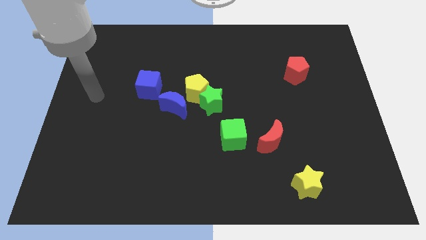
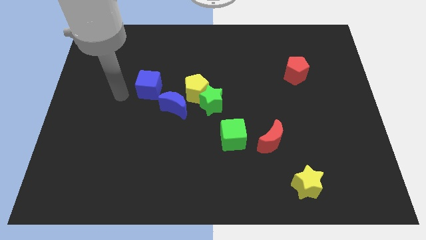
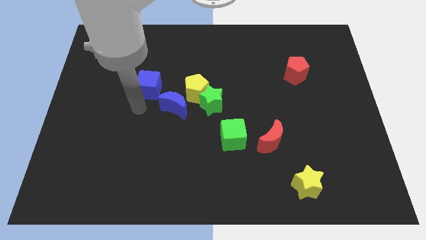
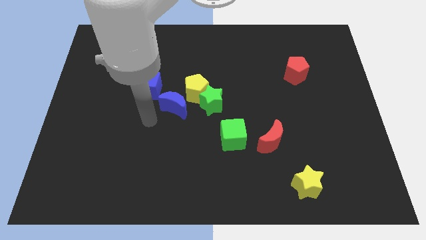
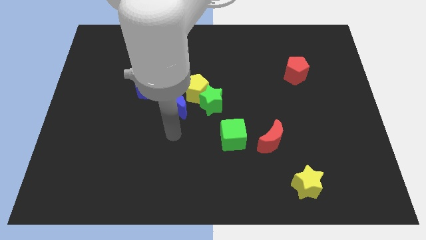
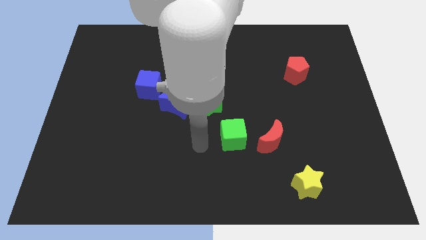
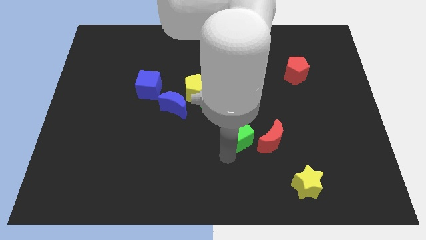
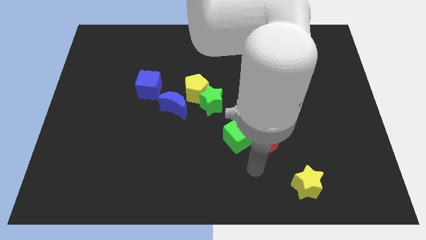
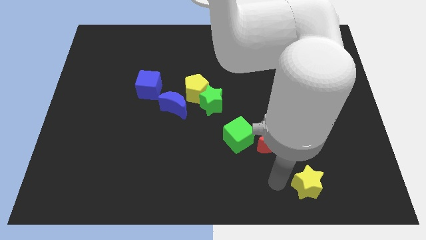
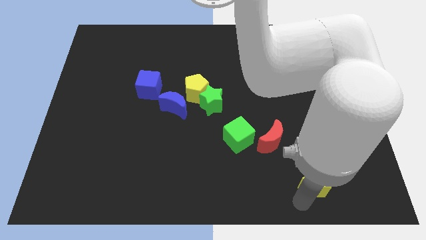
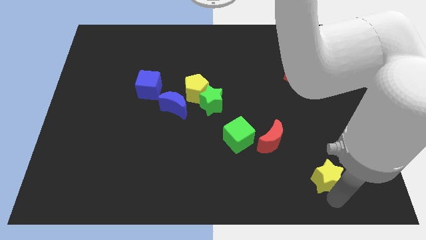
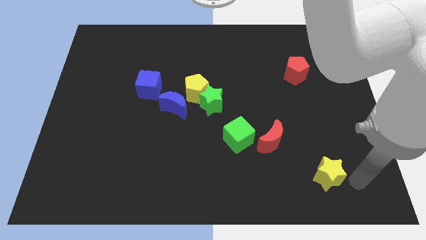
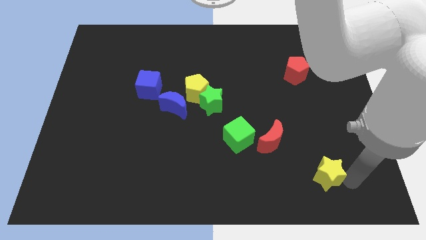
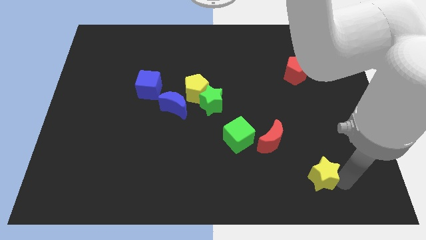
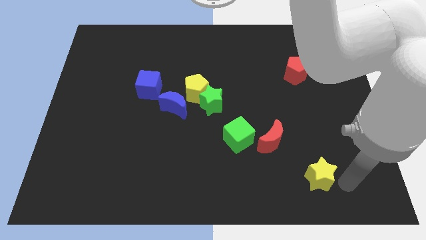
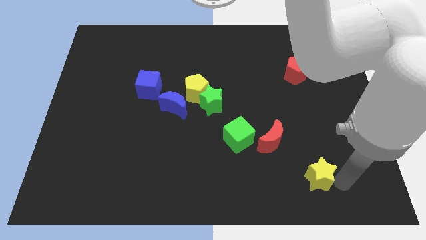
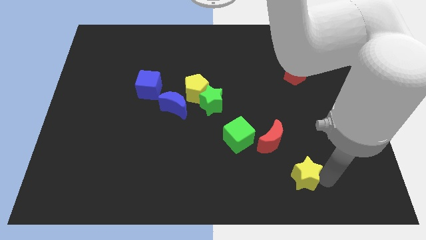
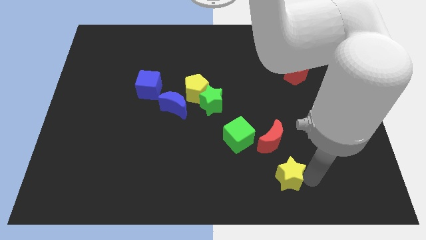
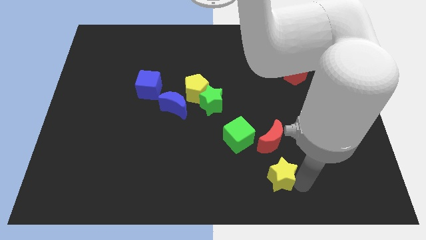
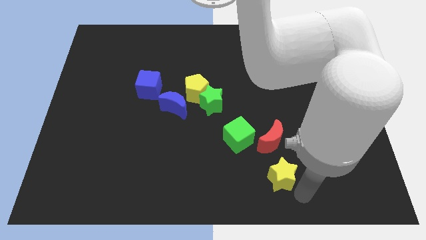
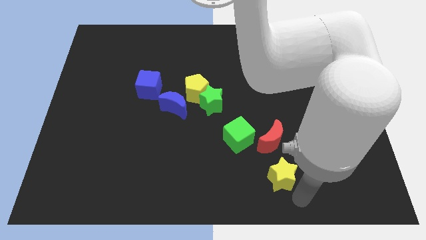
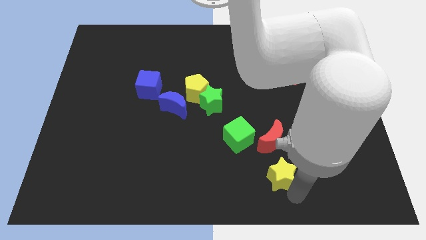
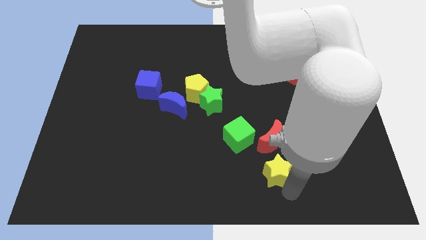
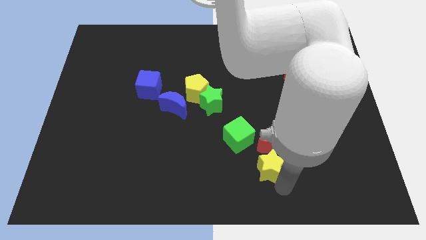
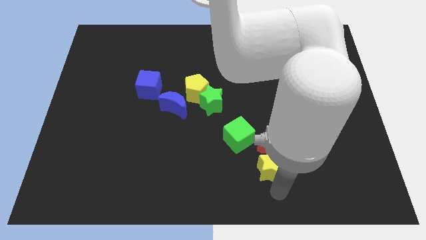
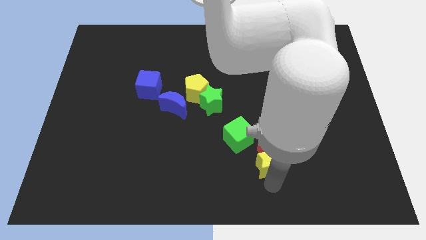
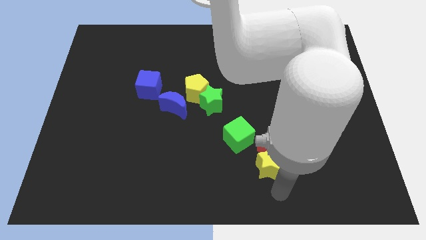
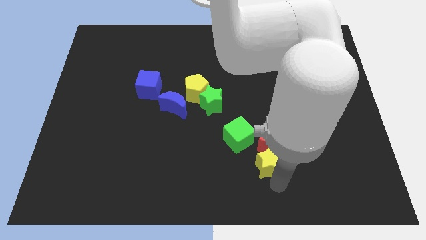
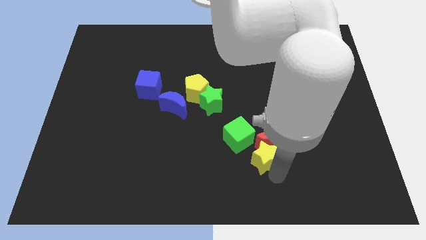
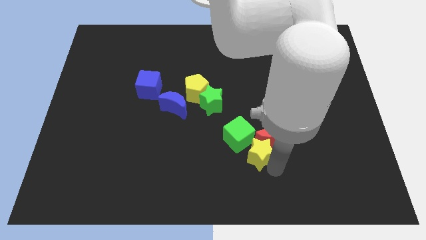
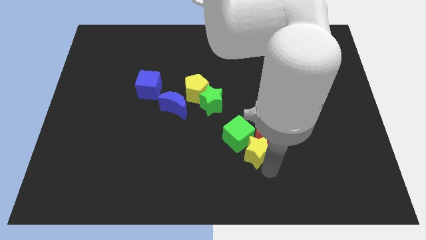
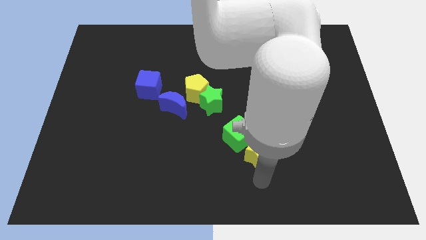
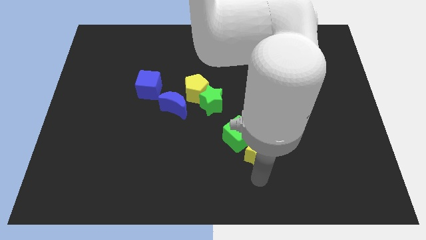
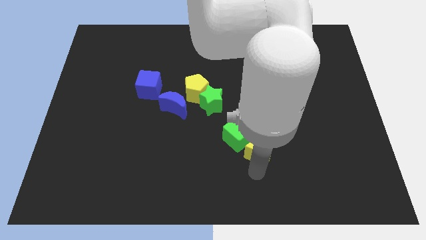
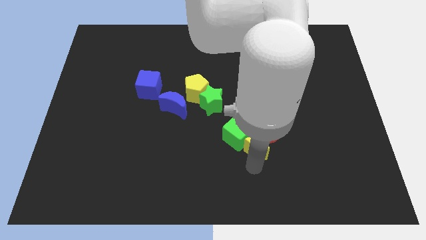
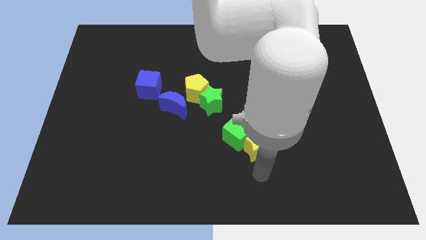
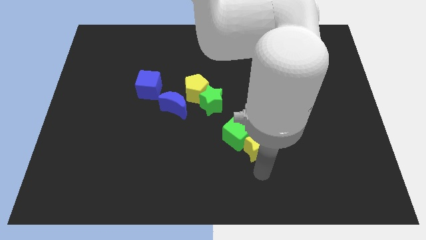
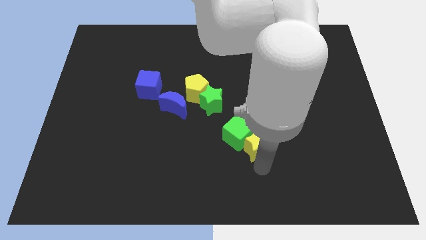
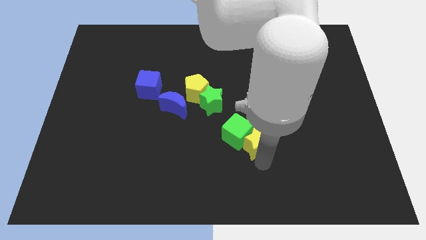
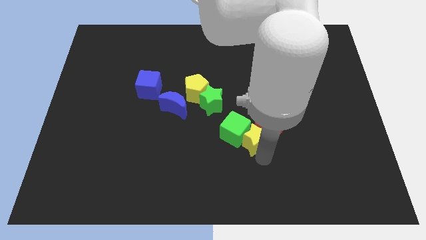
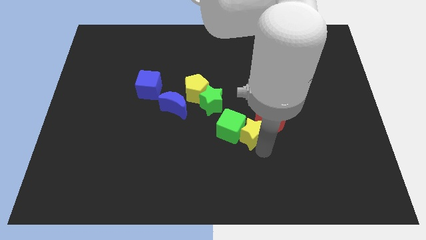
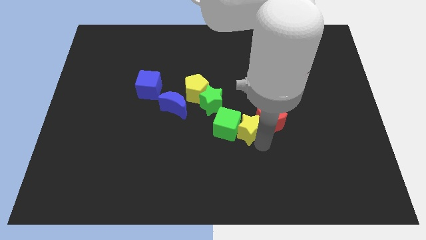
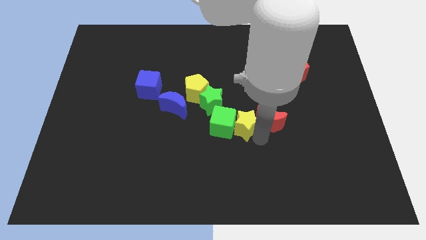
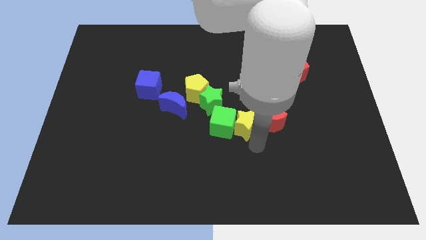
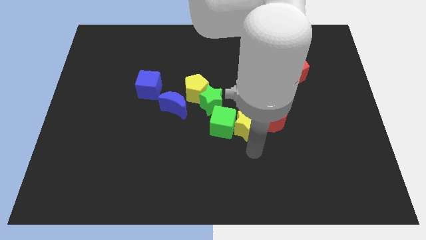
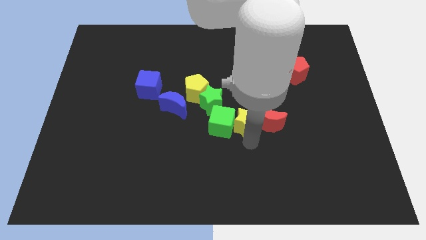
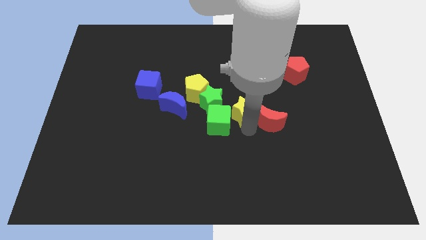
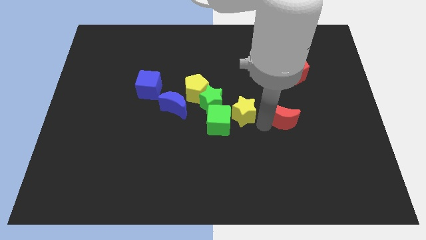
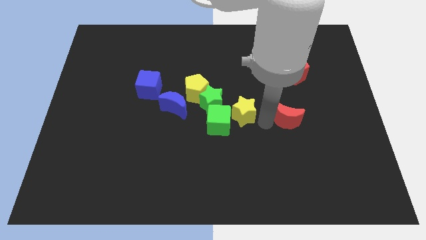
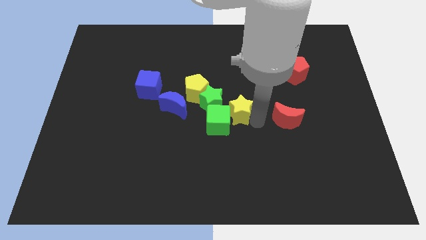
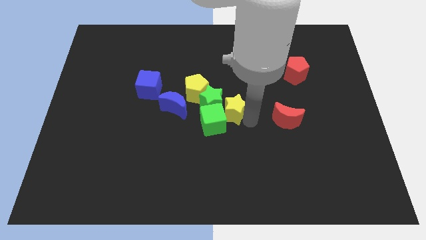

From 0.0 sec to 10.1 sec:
push the yellow star next to the green star

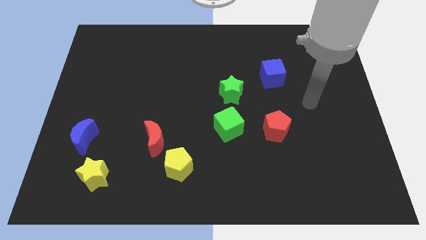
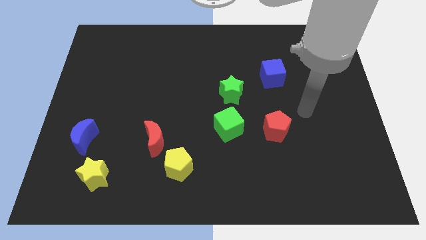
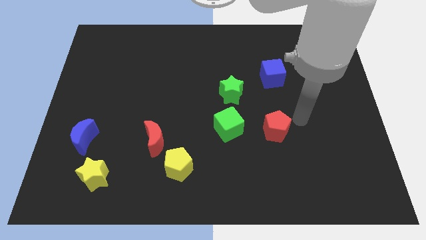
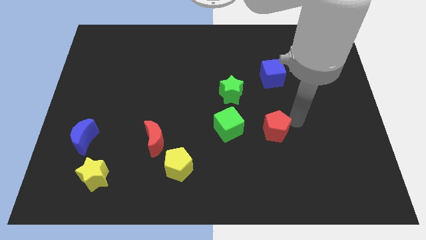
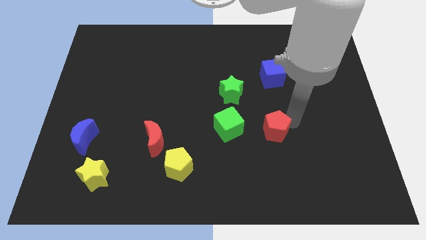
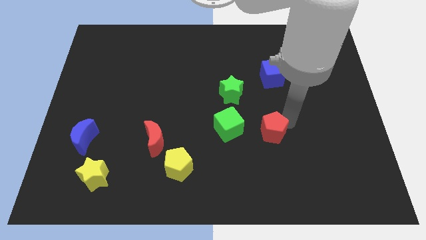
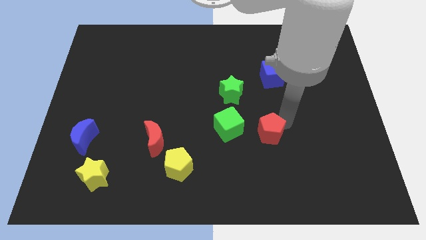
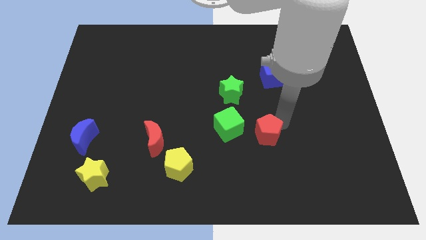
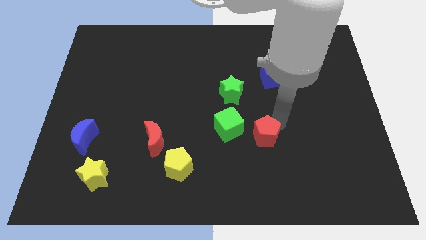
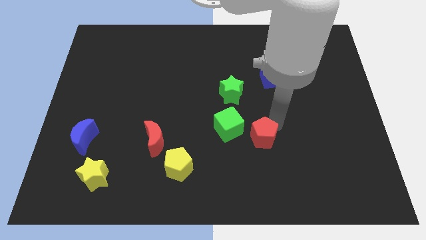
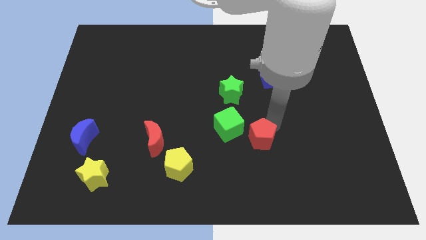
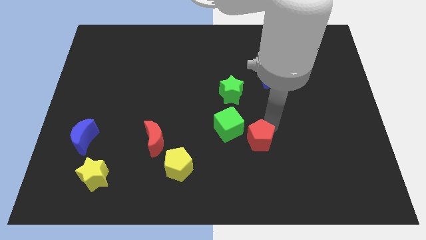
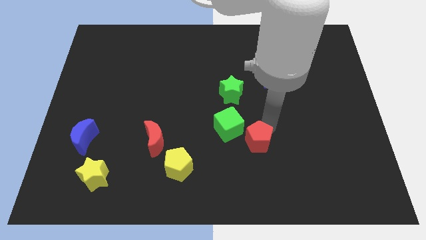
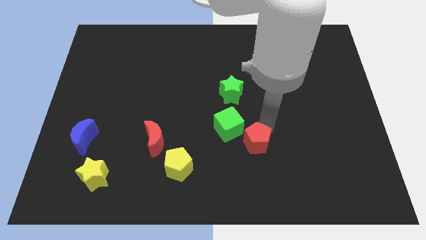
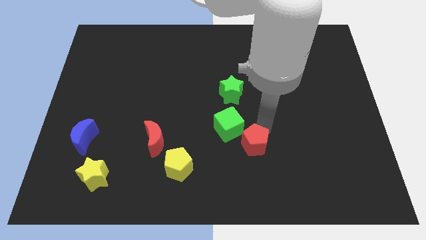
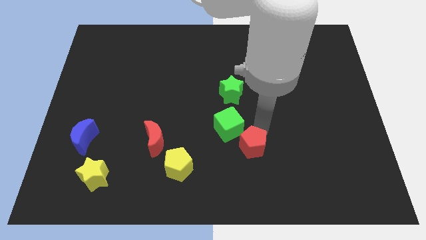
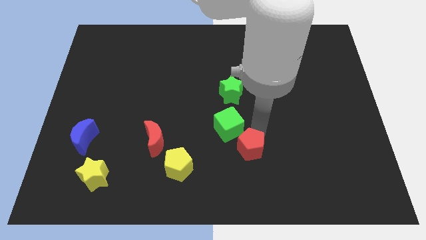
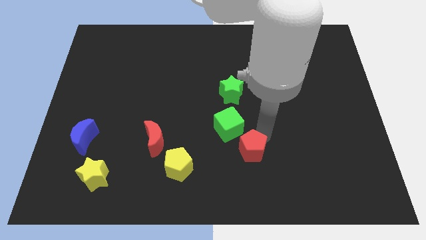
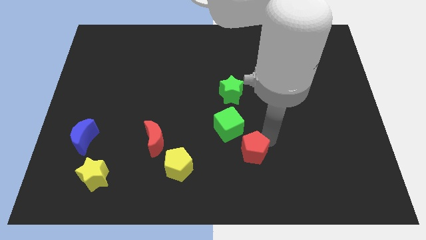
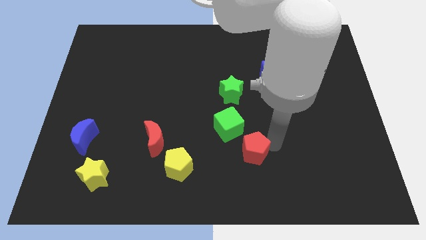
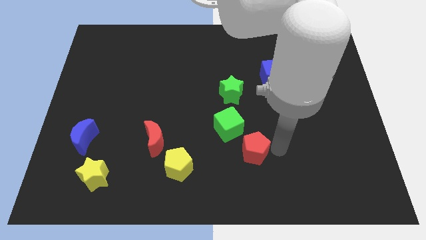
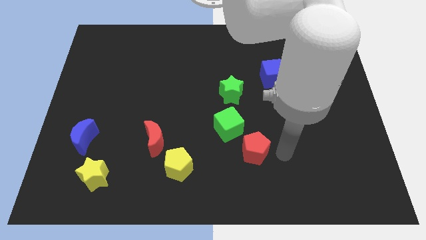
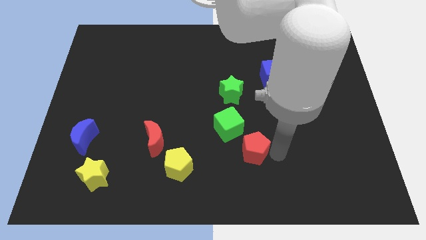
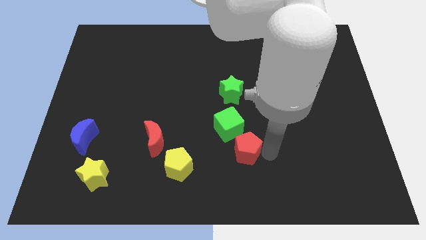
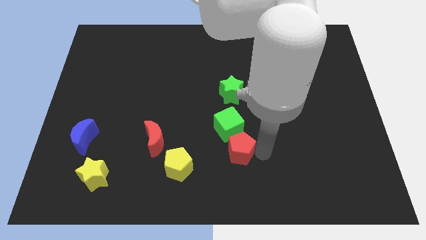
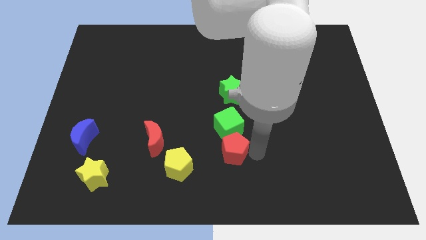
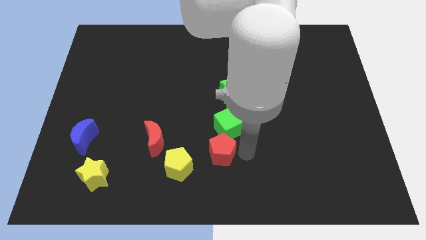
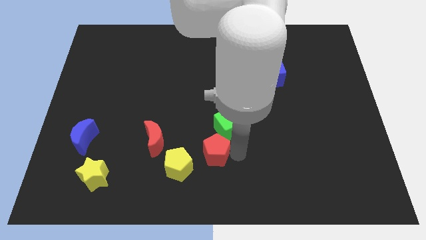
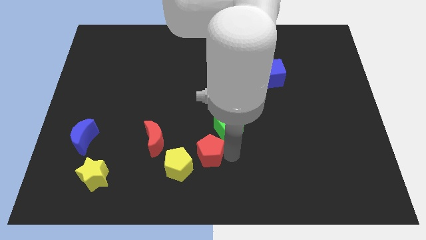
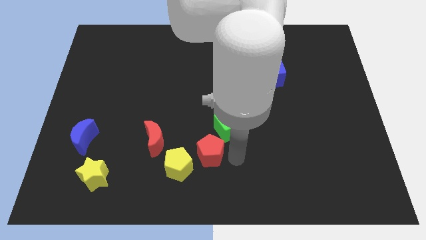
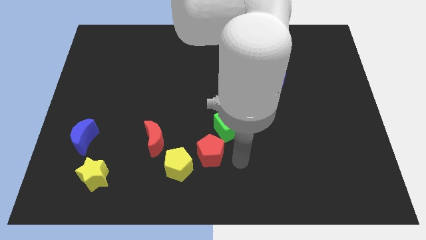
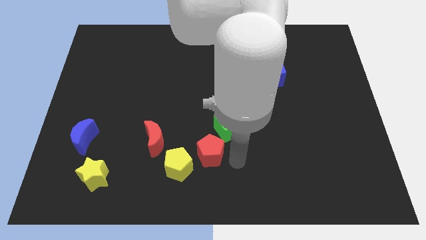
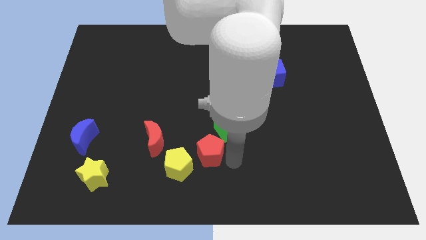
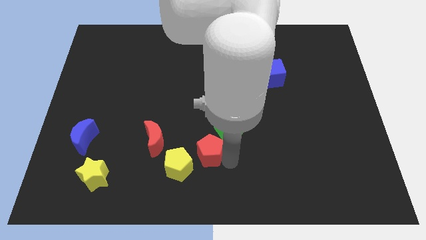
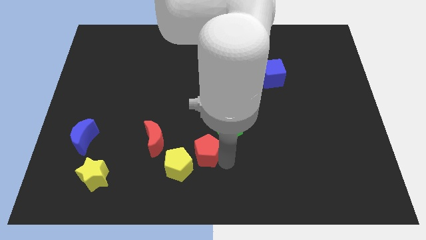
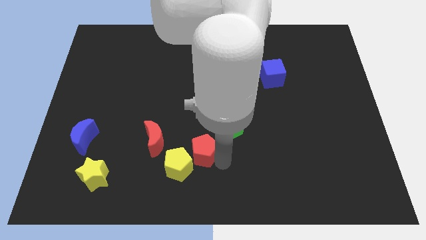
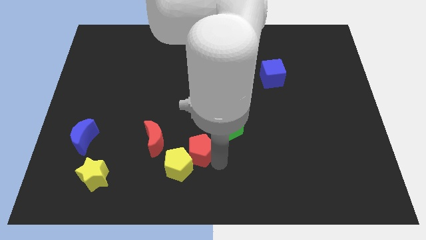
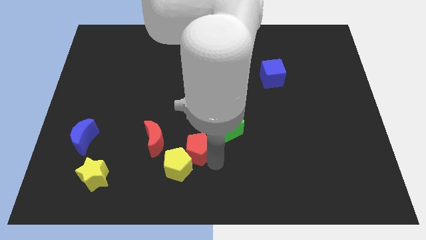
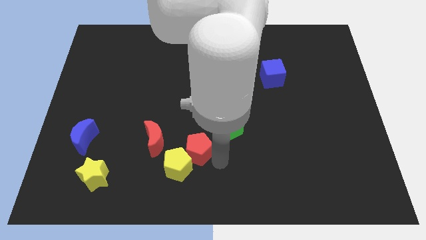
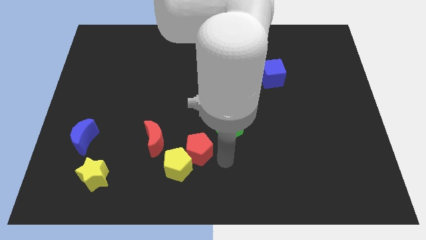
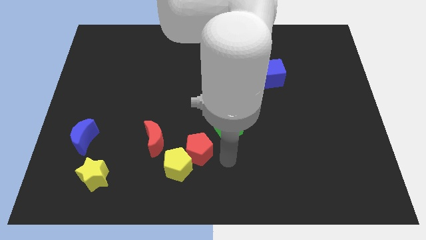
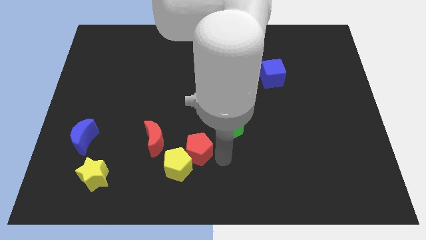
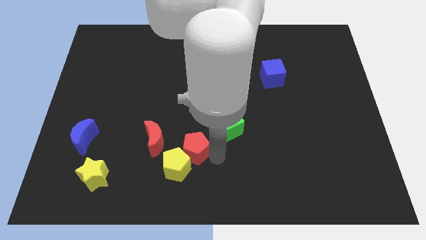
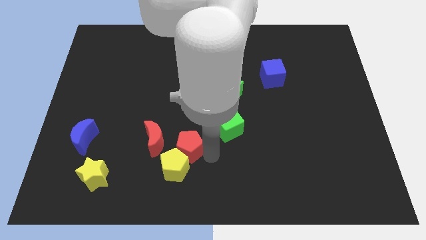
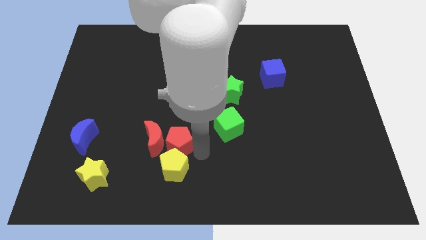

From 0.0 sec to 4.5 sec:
push the red pentagon close to the red moon
